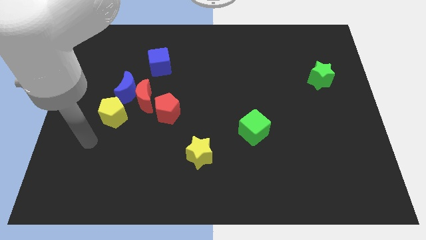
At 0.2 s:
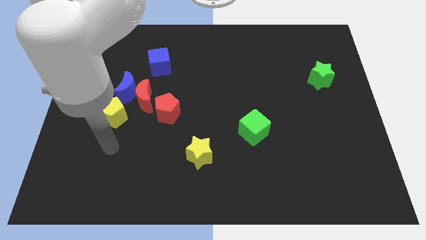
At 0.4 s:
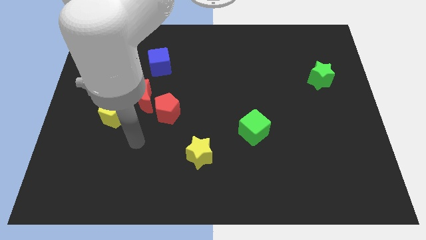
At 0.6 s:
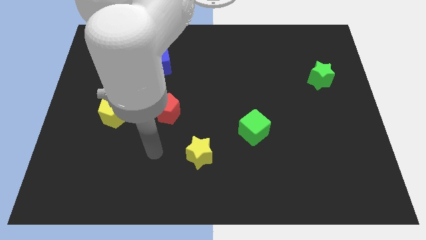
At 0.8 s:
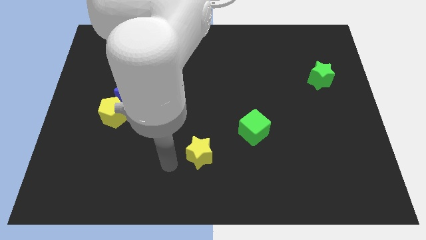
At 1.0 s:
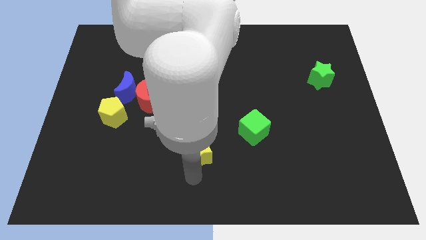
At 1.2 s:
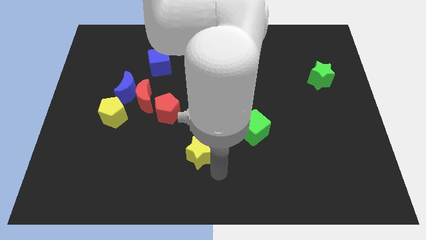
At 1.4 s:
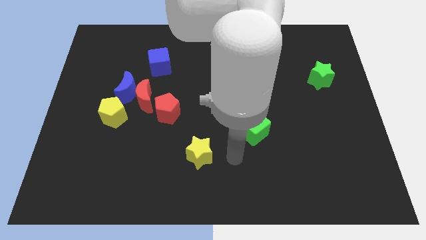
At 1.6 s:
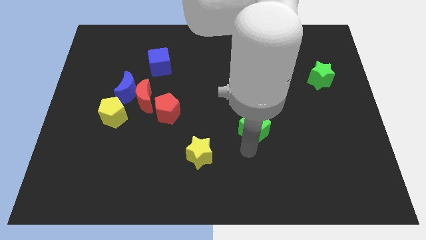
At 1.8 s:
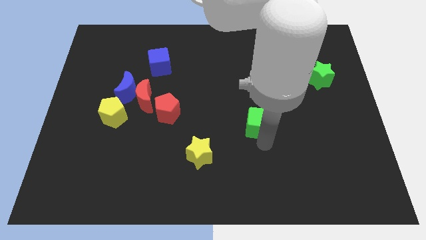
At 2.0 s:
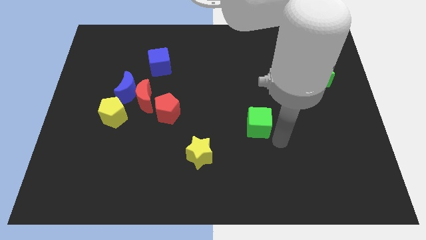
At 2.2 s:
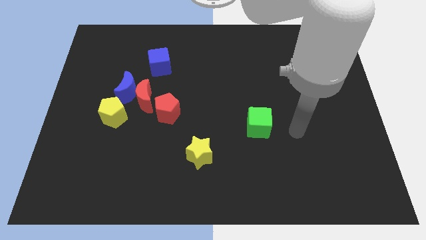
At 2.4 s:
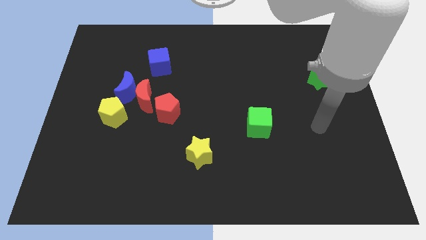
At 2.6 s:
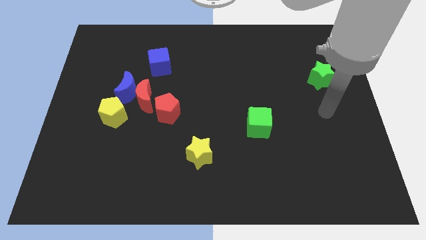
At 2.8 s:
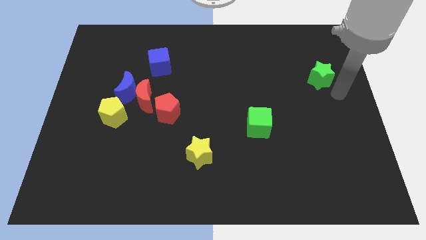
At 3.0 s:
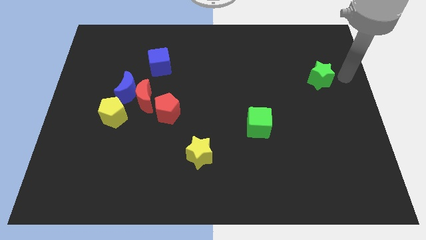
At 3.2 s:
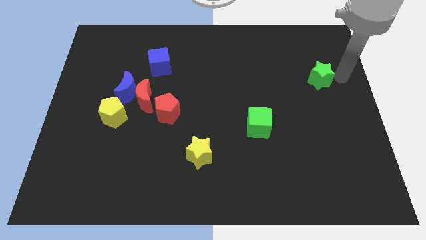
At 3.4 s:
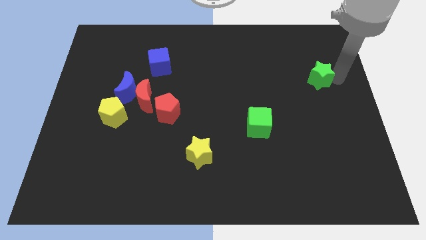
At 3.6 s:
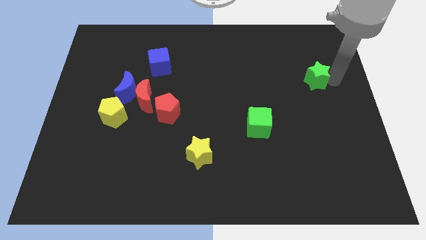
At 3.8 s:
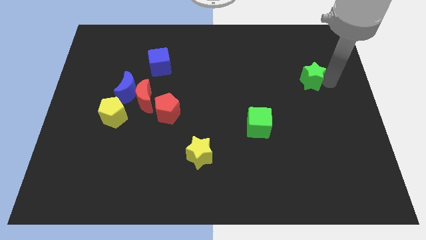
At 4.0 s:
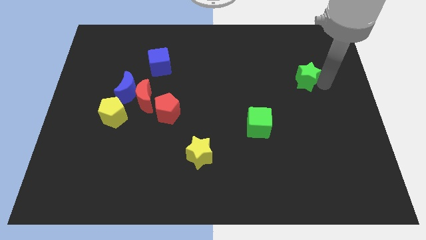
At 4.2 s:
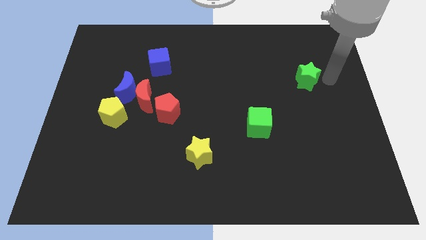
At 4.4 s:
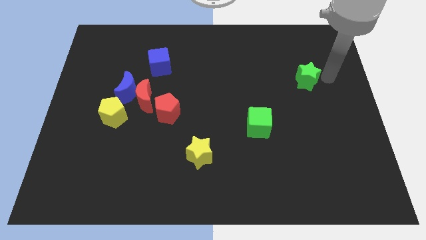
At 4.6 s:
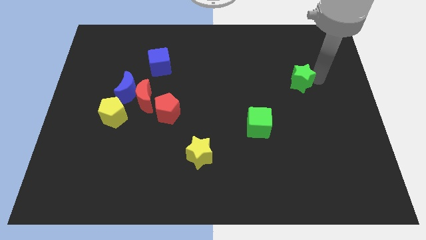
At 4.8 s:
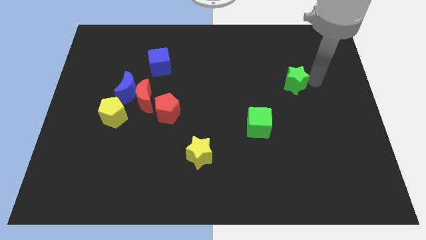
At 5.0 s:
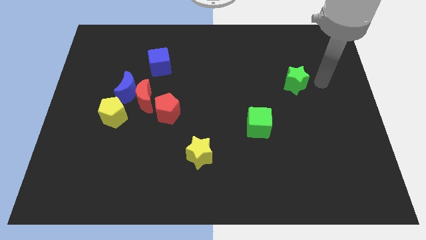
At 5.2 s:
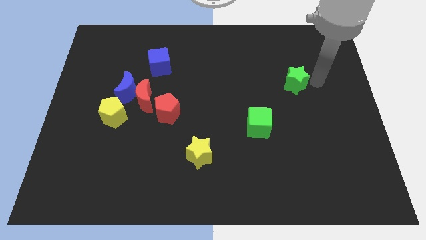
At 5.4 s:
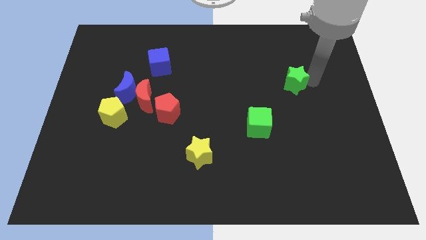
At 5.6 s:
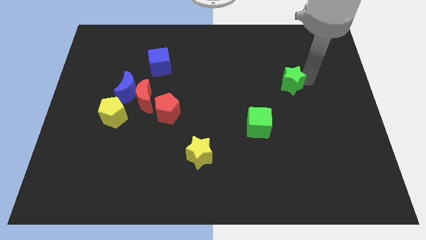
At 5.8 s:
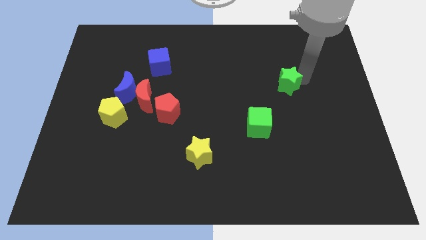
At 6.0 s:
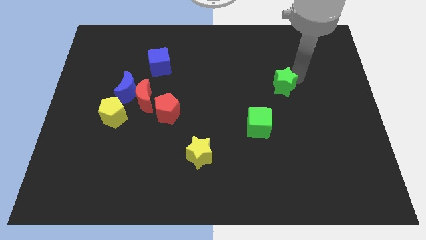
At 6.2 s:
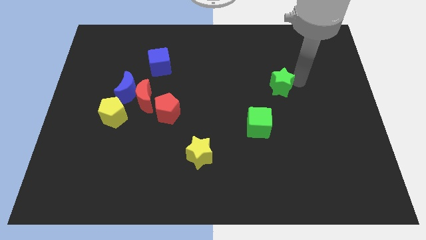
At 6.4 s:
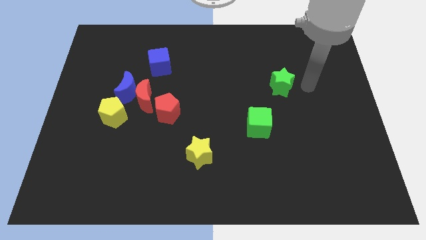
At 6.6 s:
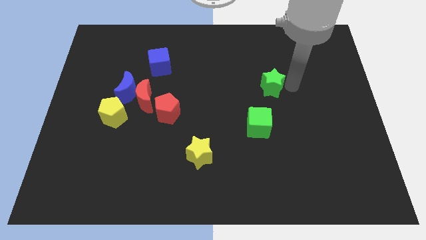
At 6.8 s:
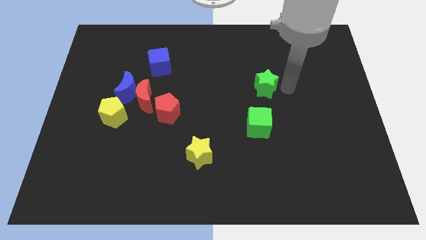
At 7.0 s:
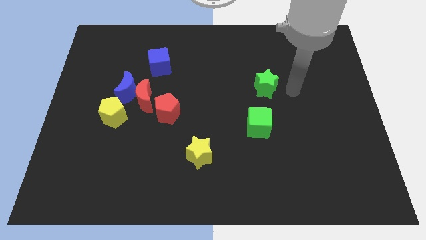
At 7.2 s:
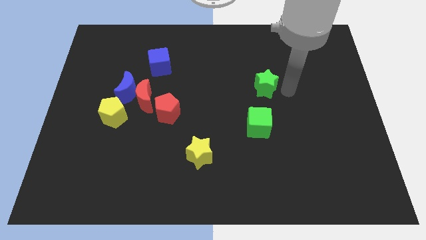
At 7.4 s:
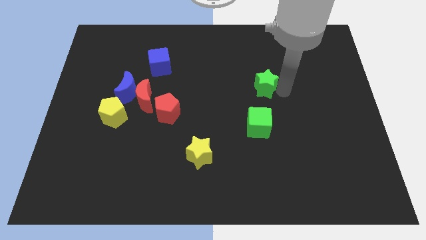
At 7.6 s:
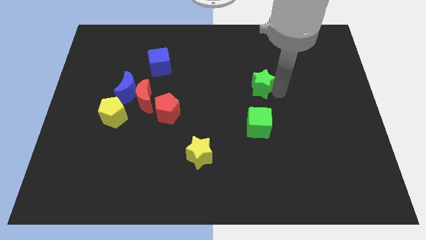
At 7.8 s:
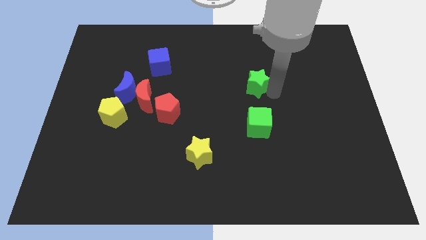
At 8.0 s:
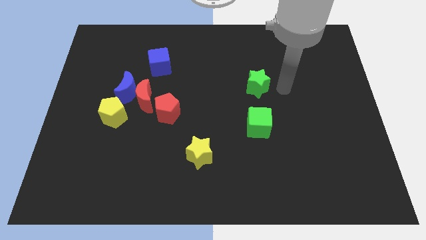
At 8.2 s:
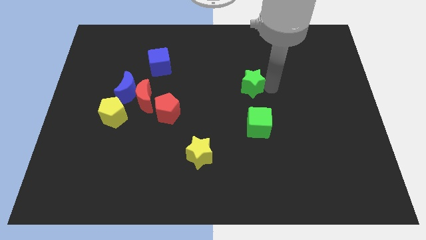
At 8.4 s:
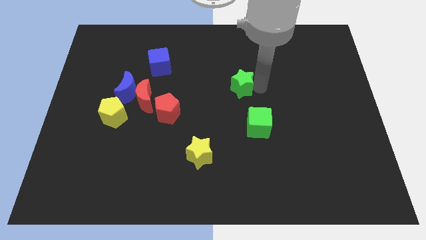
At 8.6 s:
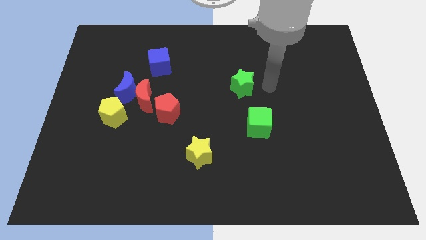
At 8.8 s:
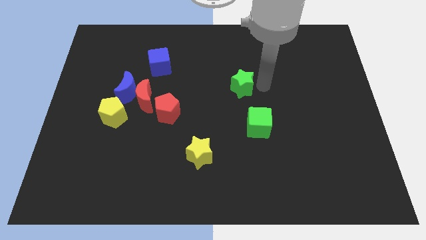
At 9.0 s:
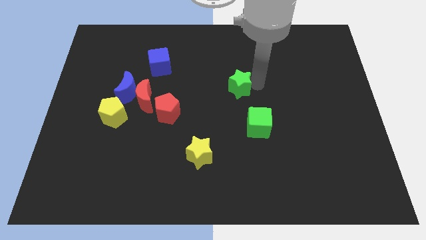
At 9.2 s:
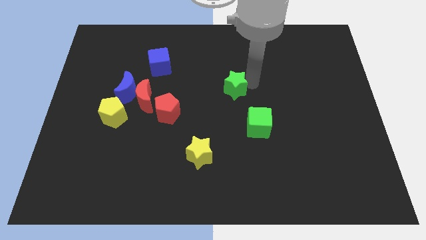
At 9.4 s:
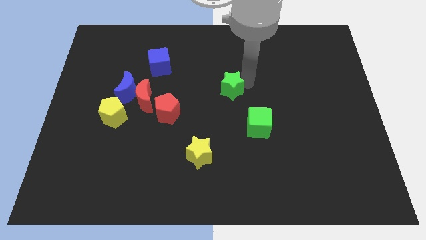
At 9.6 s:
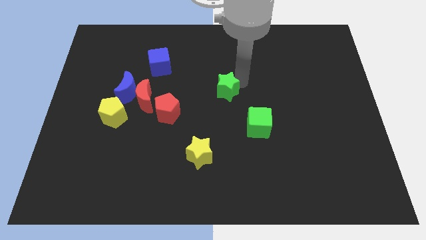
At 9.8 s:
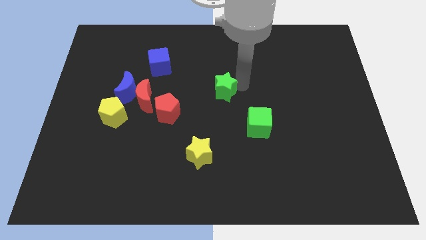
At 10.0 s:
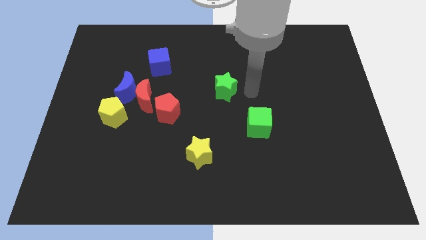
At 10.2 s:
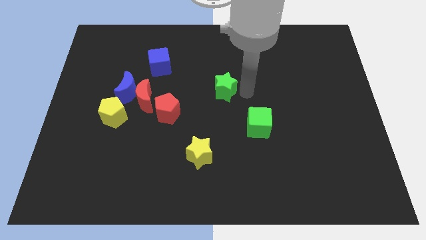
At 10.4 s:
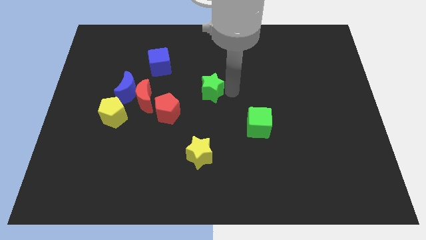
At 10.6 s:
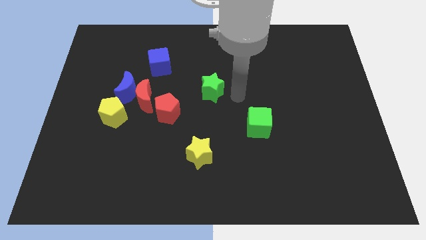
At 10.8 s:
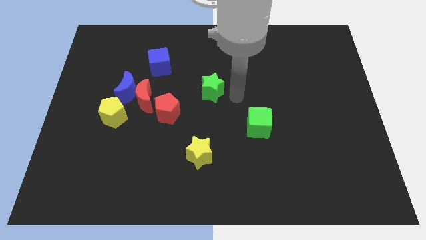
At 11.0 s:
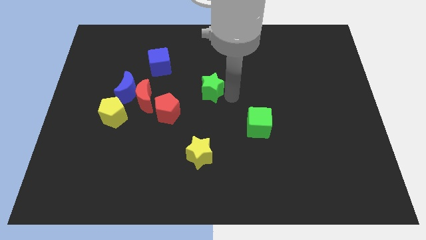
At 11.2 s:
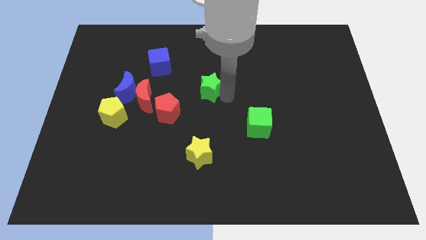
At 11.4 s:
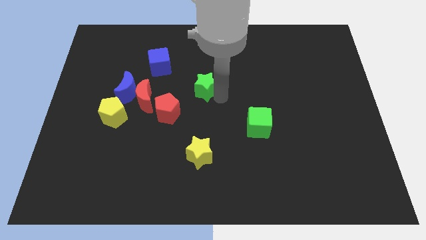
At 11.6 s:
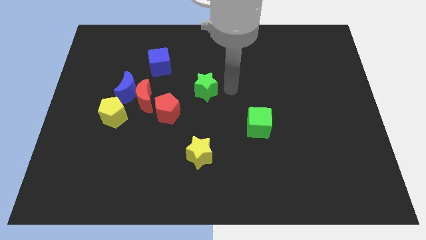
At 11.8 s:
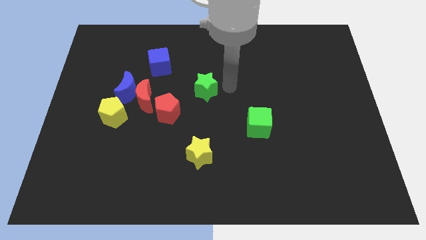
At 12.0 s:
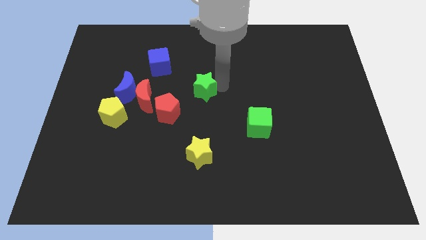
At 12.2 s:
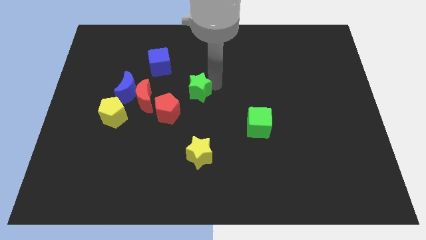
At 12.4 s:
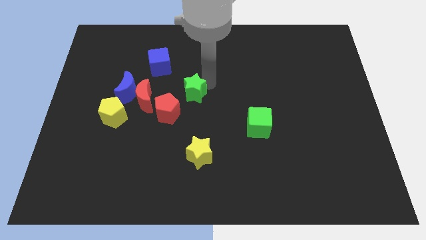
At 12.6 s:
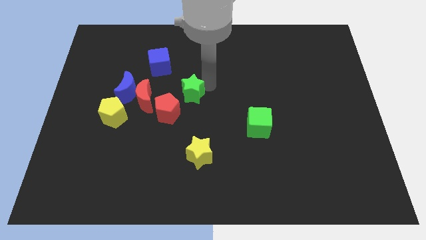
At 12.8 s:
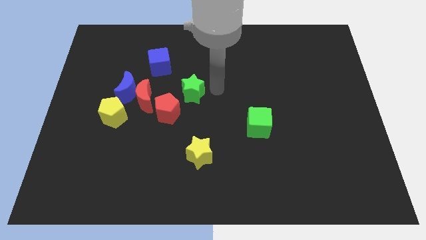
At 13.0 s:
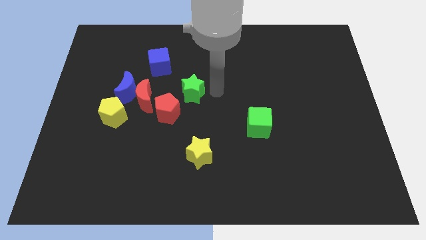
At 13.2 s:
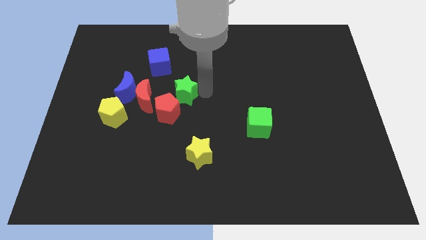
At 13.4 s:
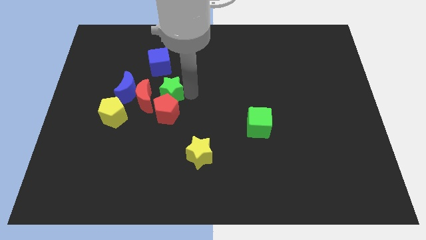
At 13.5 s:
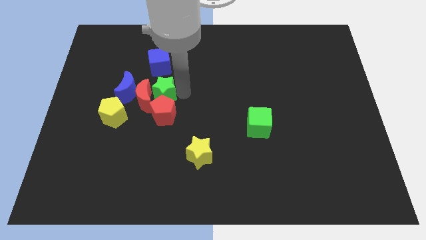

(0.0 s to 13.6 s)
slide the green star next to the red moon
